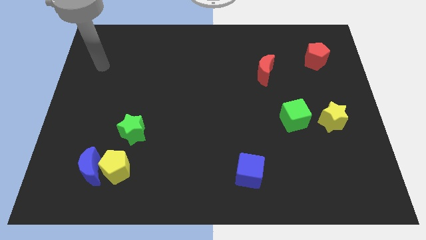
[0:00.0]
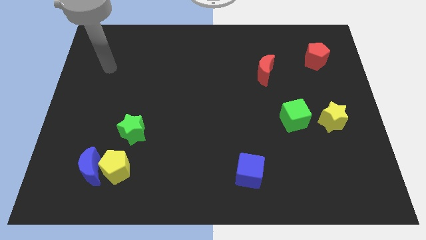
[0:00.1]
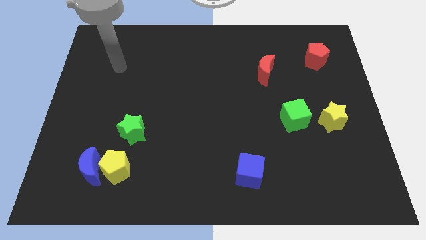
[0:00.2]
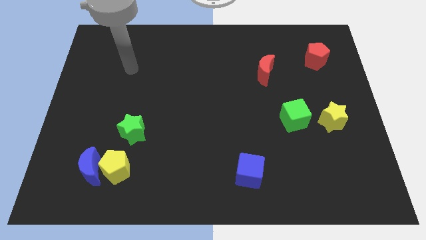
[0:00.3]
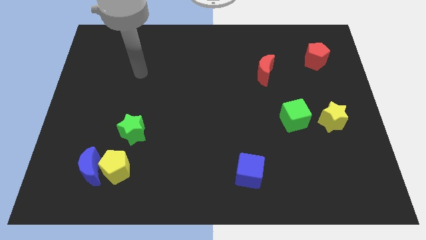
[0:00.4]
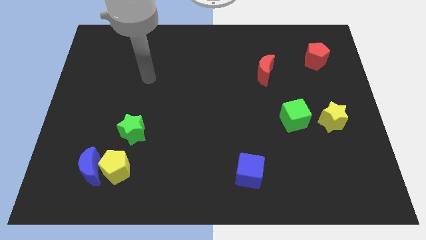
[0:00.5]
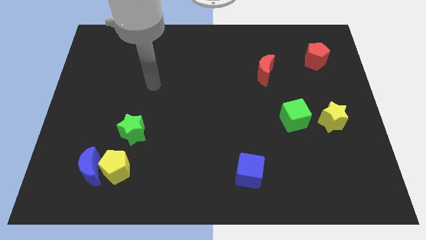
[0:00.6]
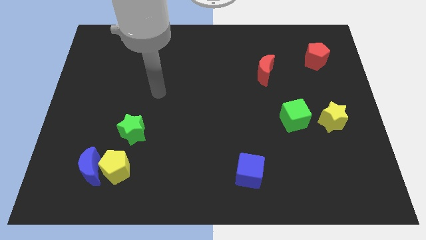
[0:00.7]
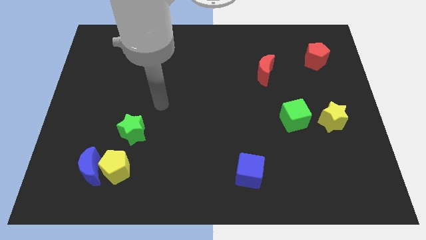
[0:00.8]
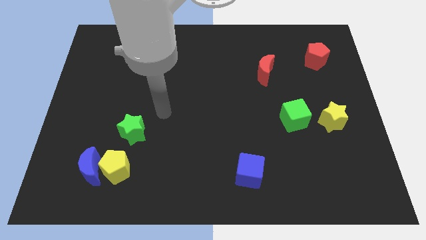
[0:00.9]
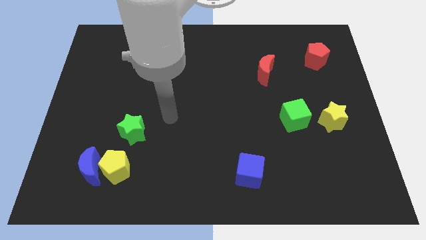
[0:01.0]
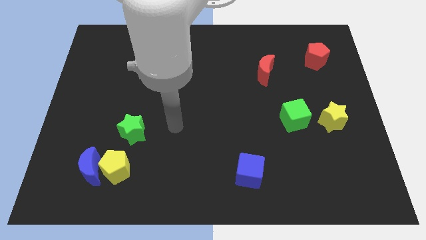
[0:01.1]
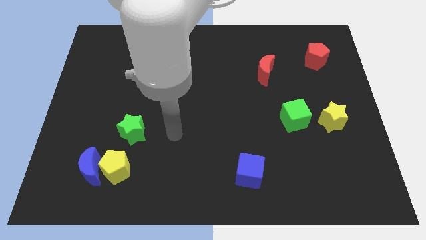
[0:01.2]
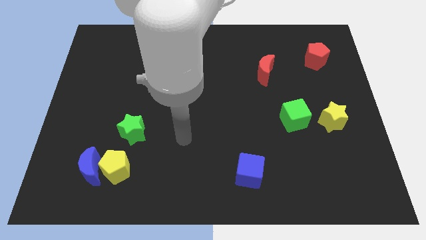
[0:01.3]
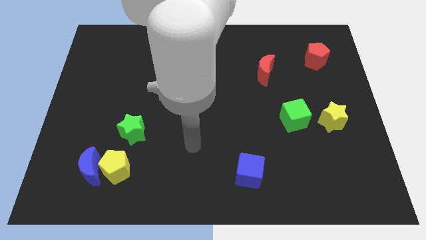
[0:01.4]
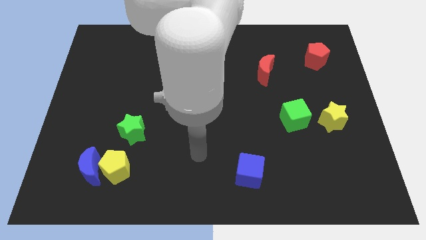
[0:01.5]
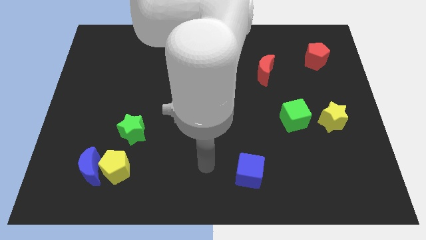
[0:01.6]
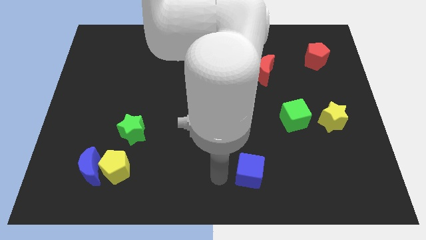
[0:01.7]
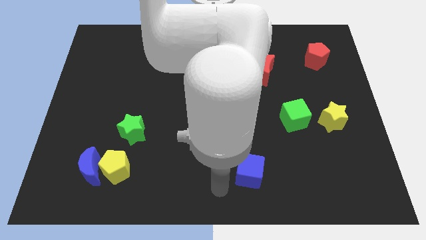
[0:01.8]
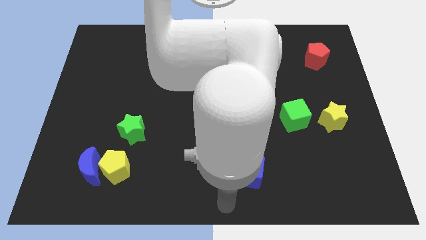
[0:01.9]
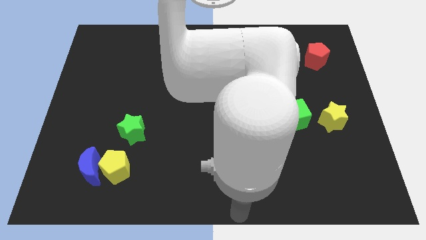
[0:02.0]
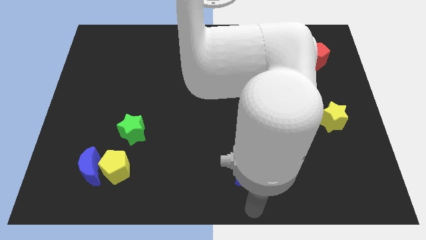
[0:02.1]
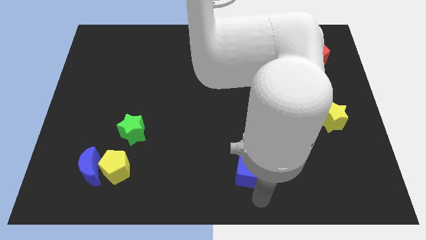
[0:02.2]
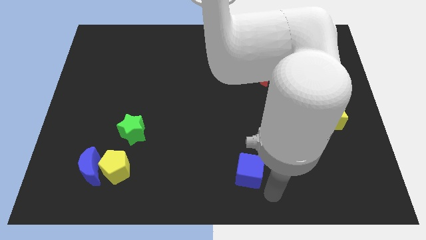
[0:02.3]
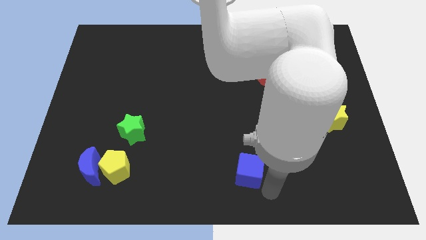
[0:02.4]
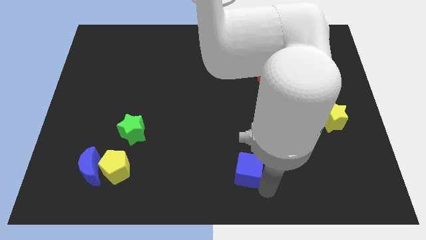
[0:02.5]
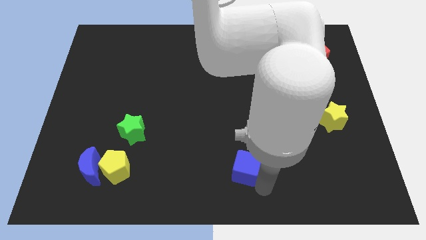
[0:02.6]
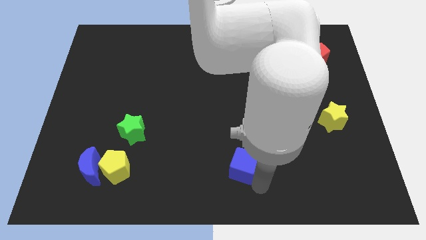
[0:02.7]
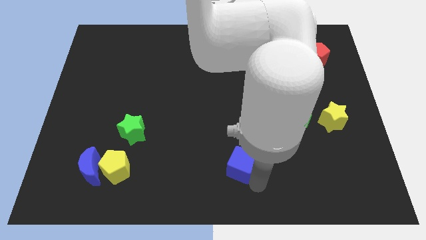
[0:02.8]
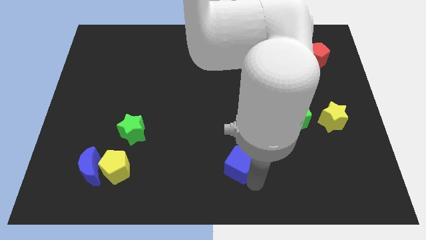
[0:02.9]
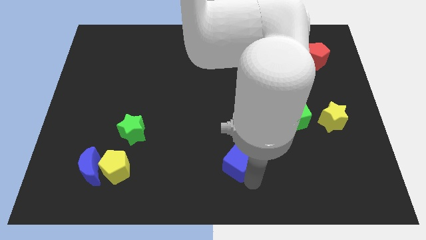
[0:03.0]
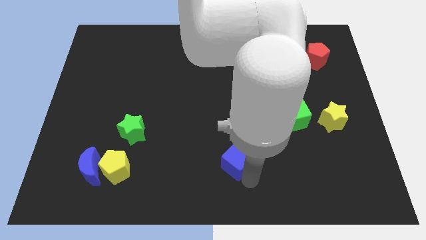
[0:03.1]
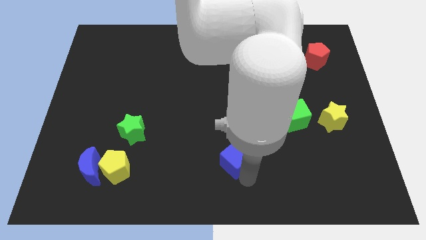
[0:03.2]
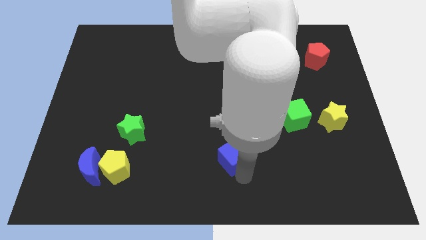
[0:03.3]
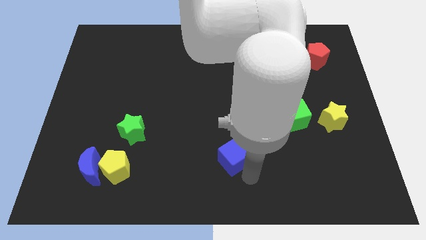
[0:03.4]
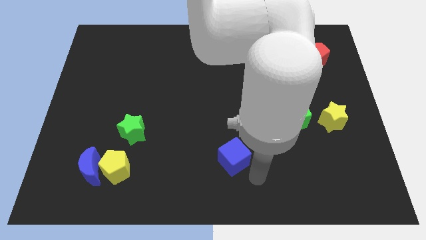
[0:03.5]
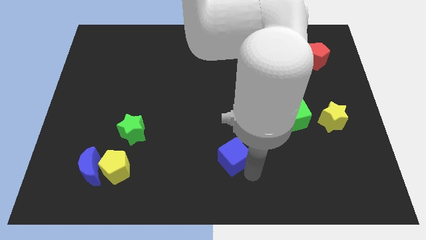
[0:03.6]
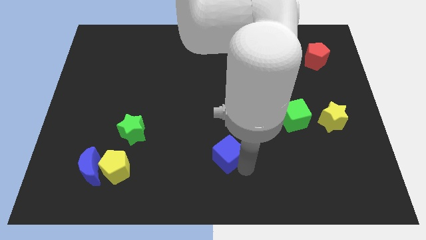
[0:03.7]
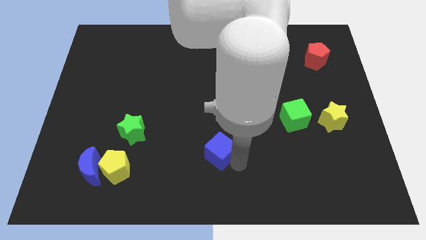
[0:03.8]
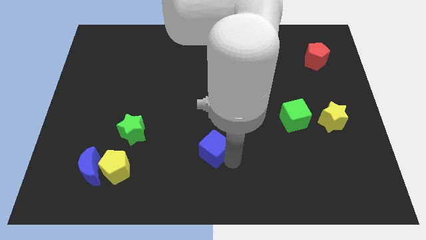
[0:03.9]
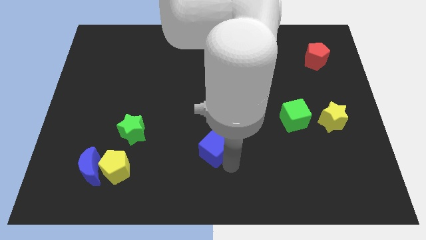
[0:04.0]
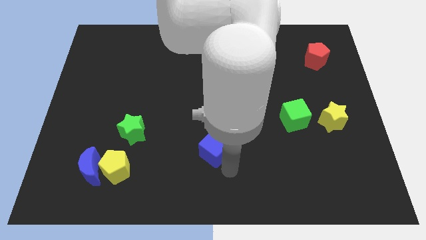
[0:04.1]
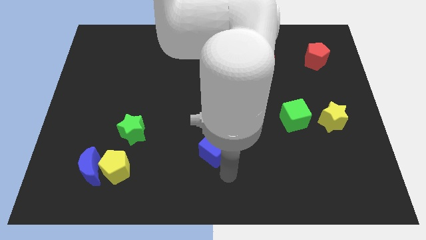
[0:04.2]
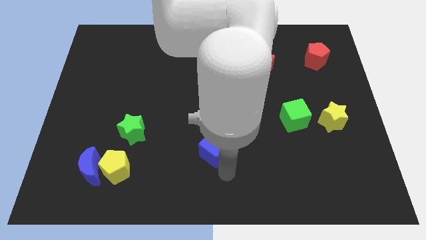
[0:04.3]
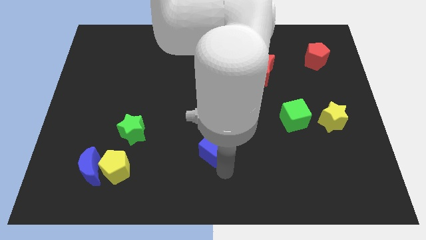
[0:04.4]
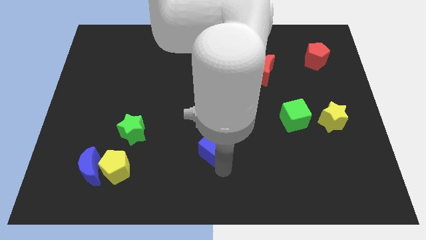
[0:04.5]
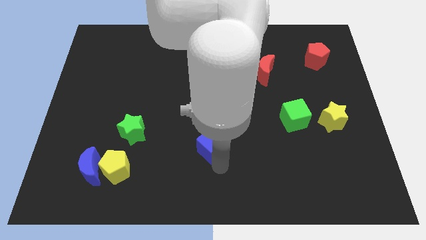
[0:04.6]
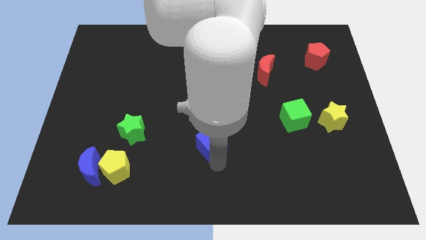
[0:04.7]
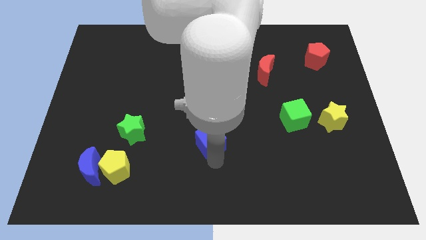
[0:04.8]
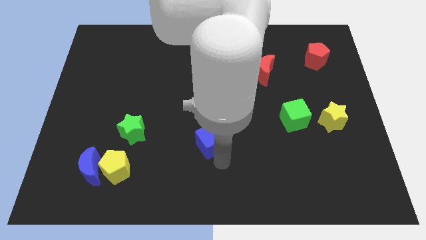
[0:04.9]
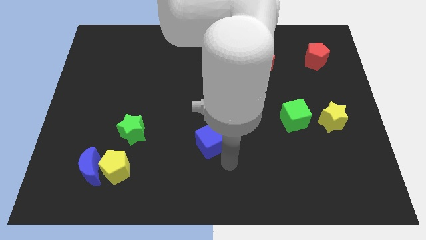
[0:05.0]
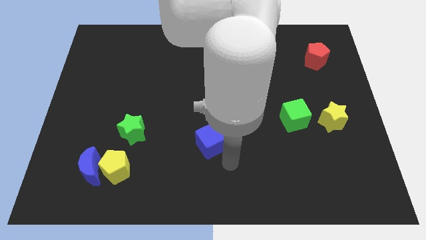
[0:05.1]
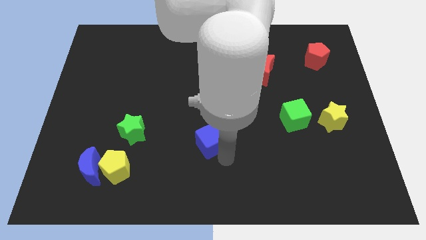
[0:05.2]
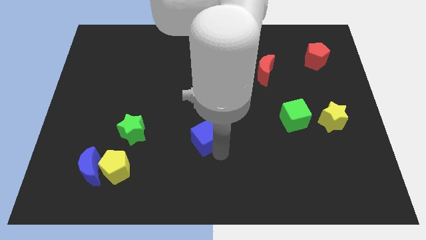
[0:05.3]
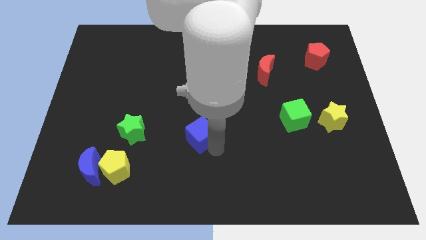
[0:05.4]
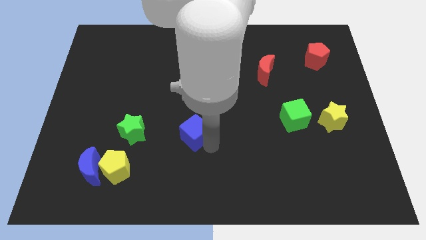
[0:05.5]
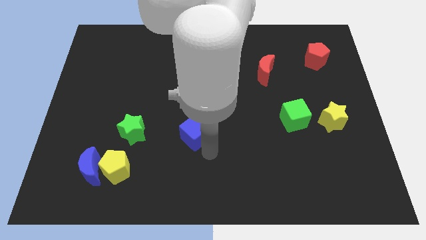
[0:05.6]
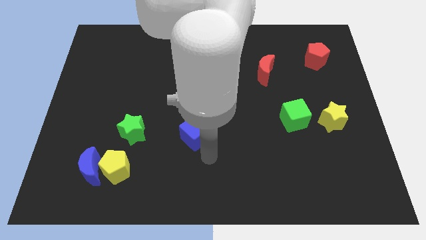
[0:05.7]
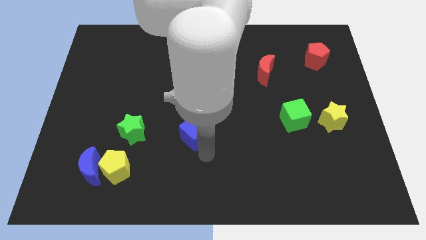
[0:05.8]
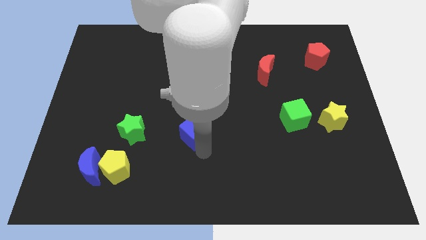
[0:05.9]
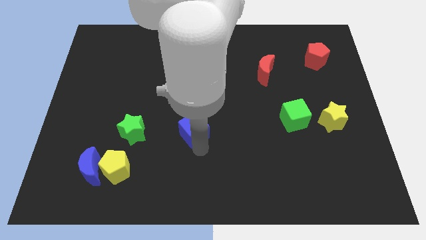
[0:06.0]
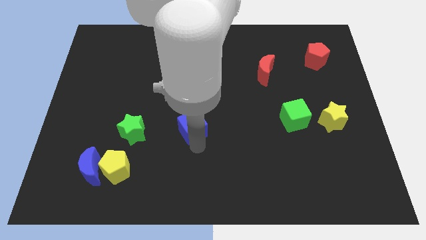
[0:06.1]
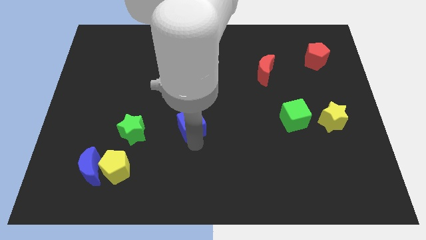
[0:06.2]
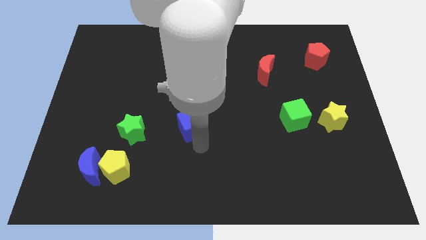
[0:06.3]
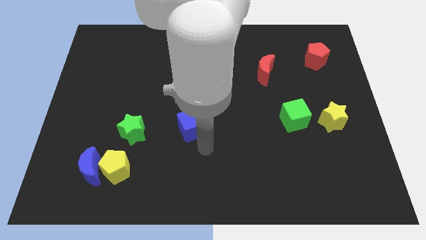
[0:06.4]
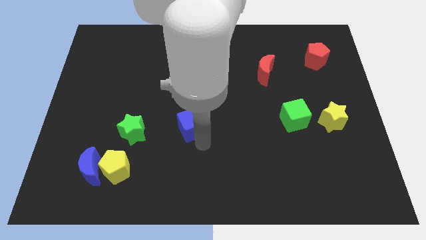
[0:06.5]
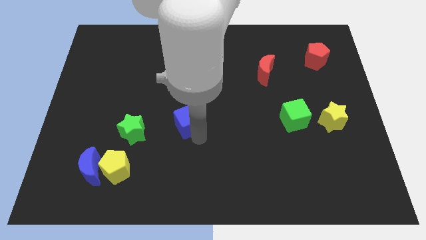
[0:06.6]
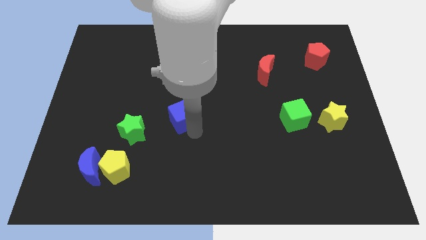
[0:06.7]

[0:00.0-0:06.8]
push the blue cube upwards and left diagonally

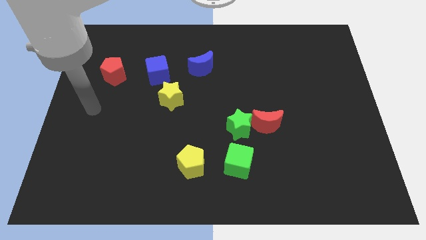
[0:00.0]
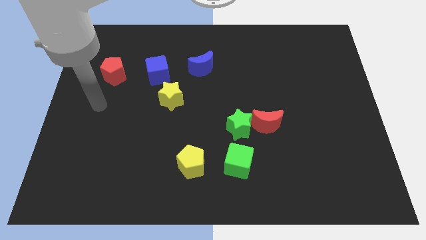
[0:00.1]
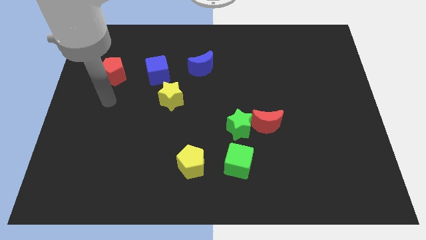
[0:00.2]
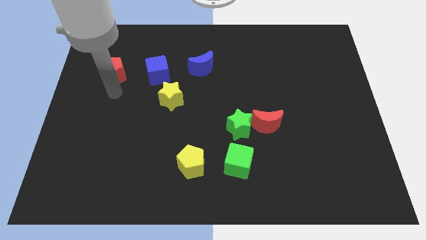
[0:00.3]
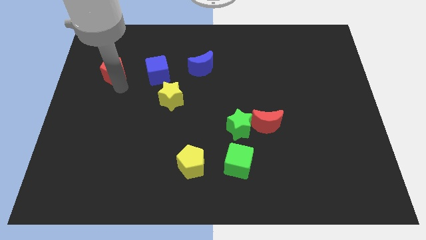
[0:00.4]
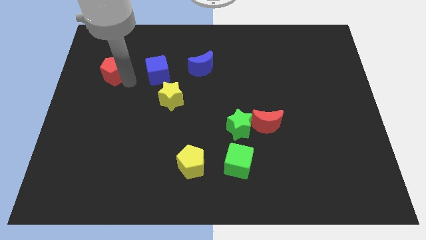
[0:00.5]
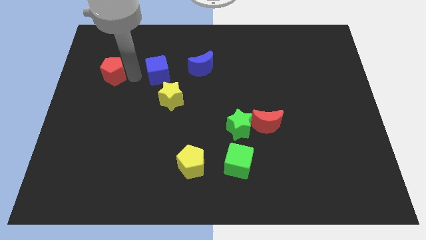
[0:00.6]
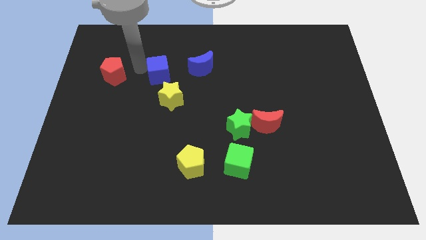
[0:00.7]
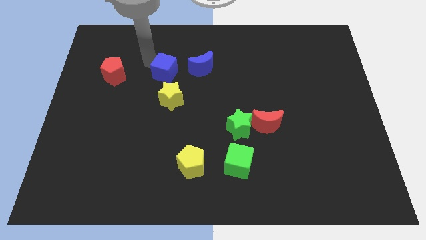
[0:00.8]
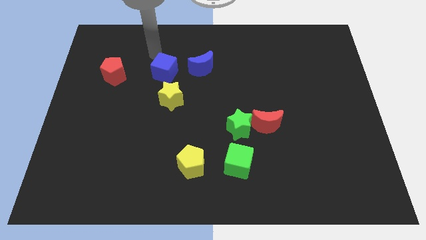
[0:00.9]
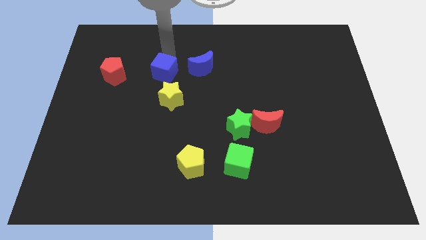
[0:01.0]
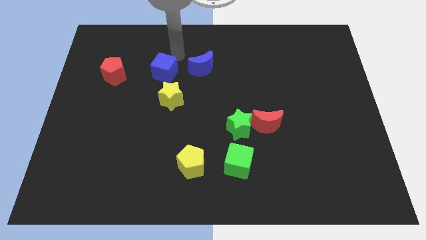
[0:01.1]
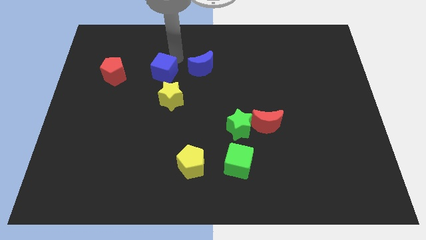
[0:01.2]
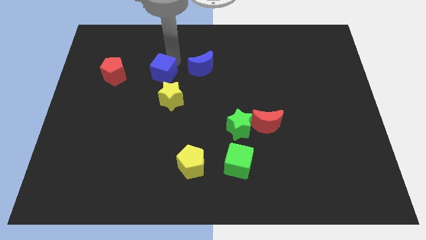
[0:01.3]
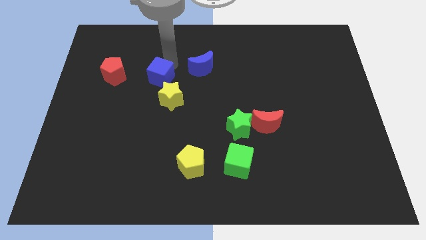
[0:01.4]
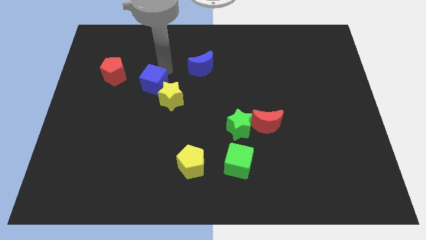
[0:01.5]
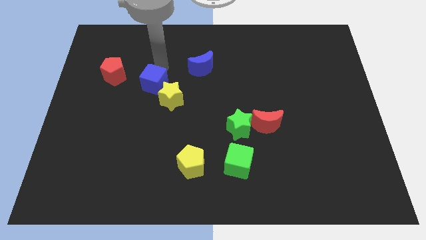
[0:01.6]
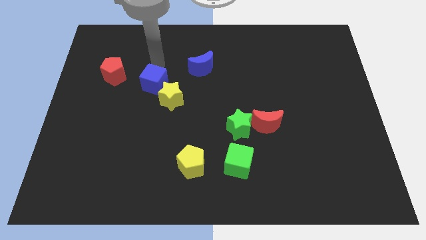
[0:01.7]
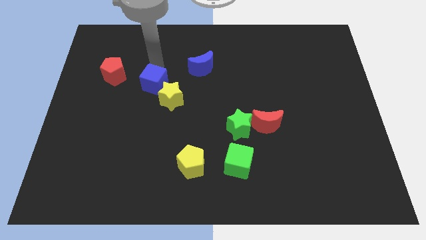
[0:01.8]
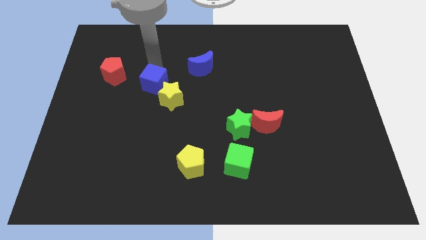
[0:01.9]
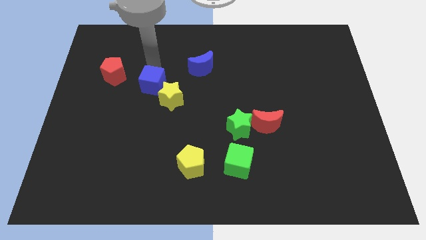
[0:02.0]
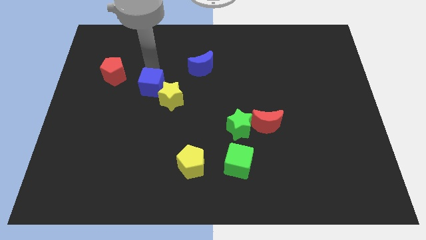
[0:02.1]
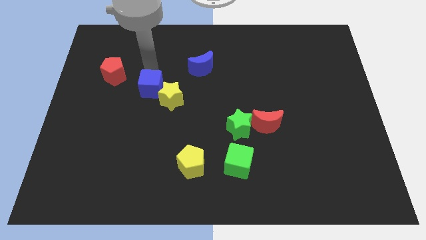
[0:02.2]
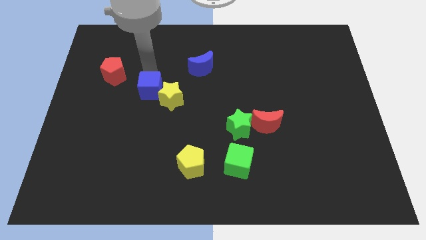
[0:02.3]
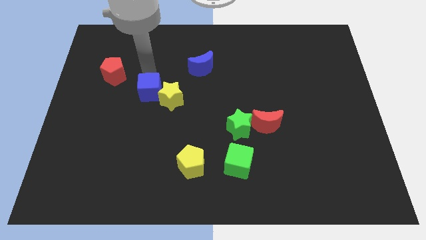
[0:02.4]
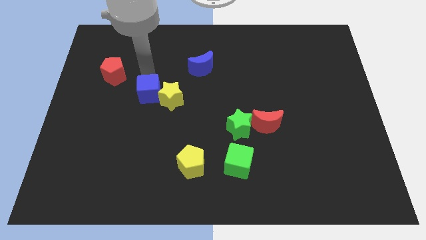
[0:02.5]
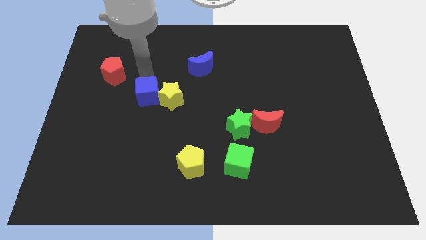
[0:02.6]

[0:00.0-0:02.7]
slide the blue cube down a little
